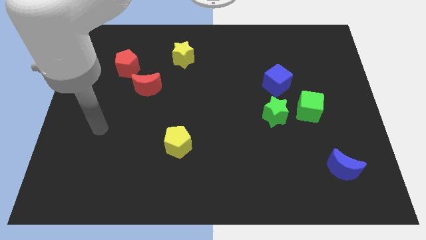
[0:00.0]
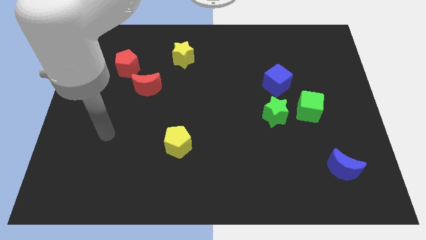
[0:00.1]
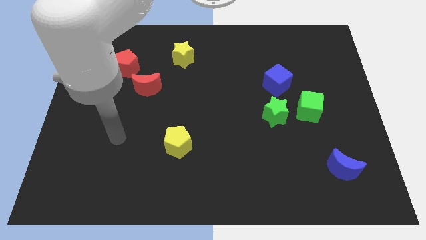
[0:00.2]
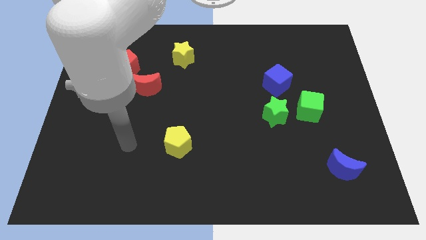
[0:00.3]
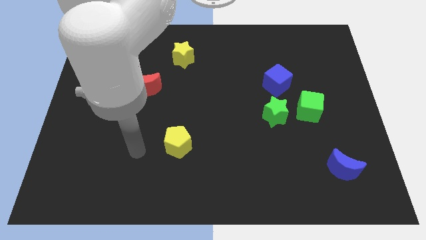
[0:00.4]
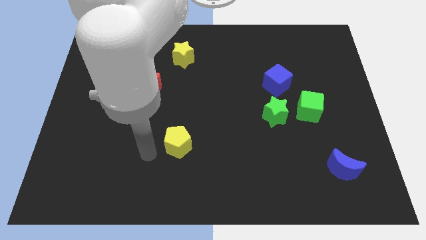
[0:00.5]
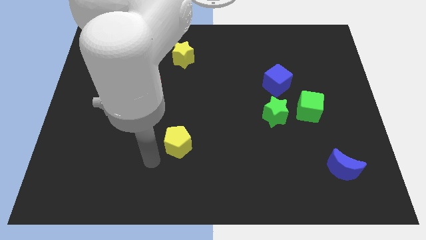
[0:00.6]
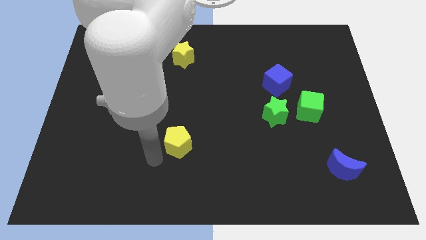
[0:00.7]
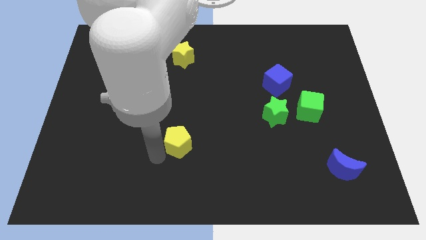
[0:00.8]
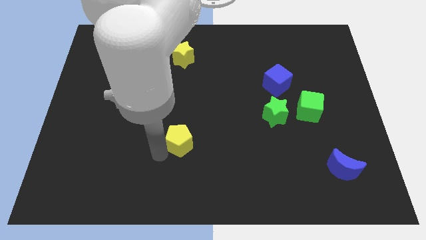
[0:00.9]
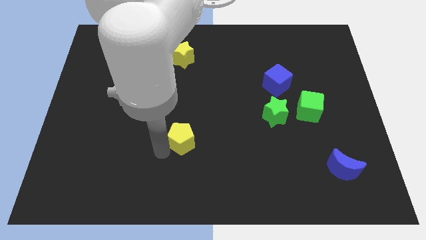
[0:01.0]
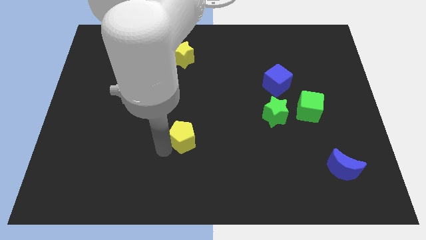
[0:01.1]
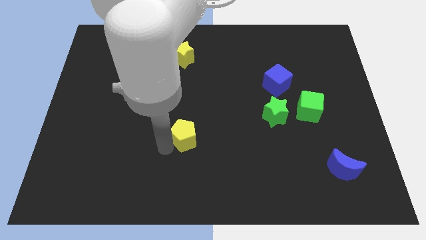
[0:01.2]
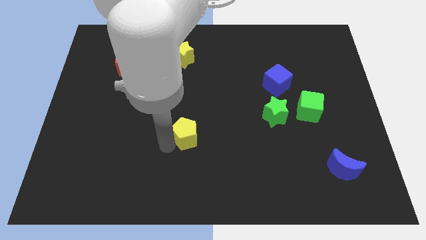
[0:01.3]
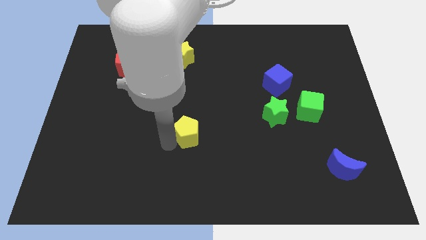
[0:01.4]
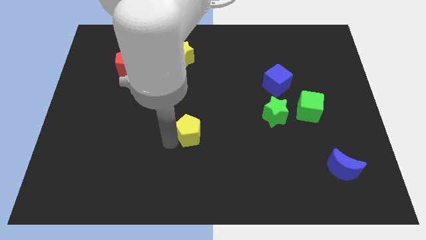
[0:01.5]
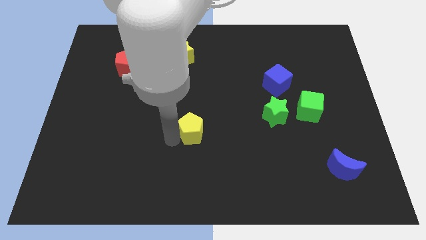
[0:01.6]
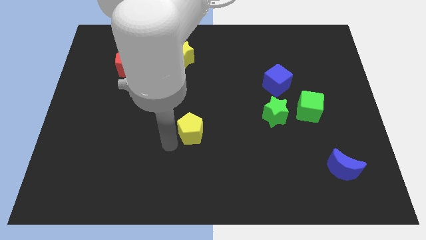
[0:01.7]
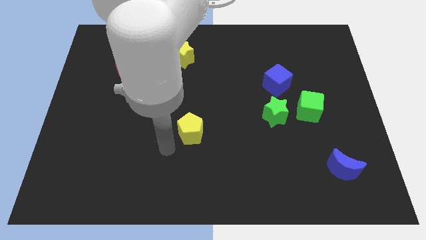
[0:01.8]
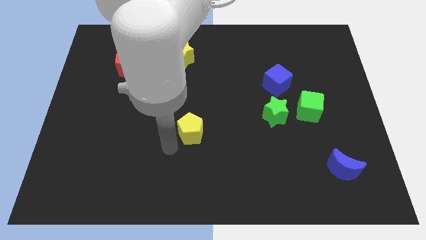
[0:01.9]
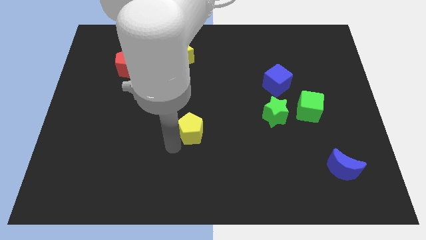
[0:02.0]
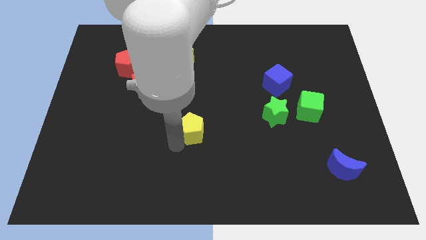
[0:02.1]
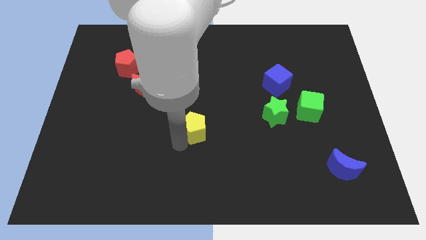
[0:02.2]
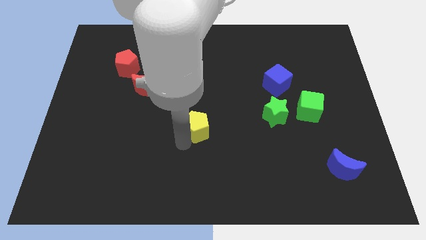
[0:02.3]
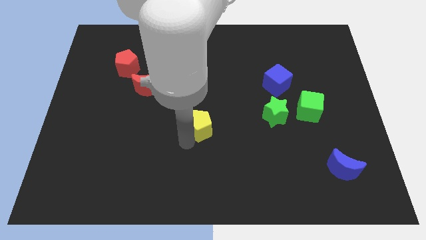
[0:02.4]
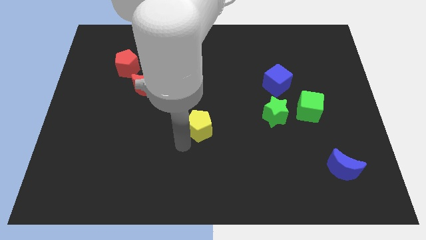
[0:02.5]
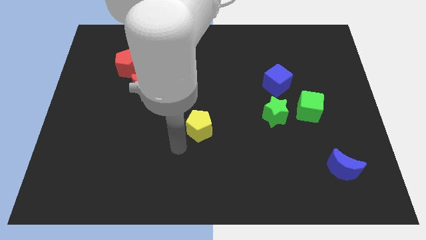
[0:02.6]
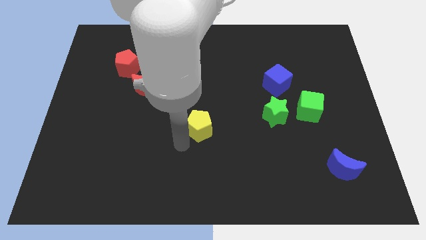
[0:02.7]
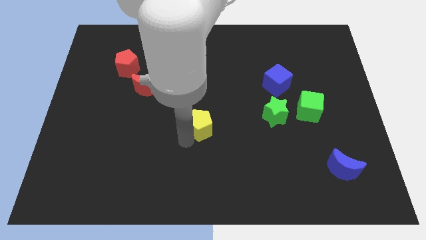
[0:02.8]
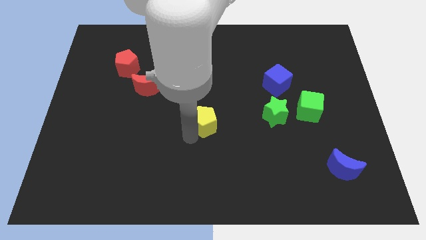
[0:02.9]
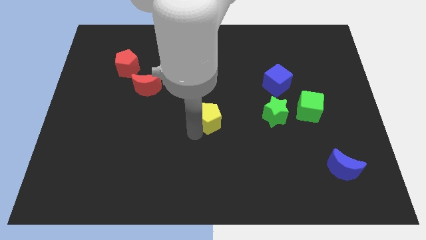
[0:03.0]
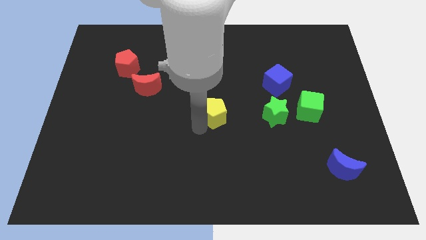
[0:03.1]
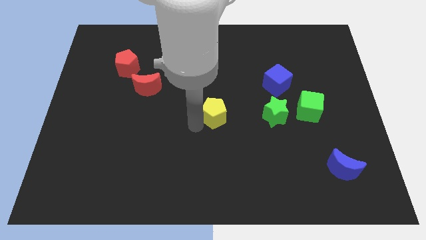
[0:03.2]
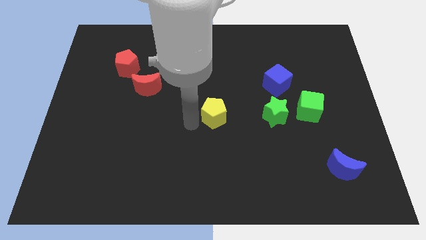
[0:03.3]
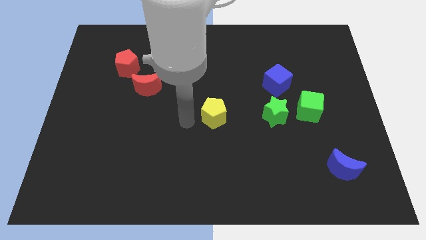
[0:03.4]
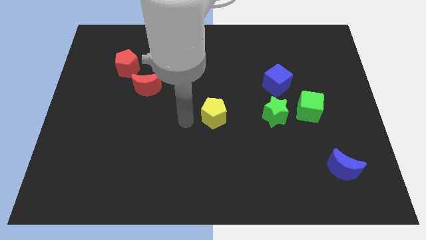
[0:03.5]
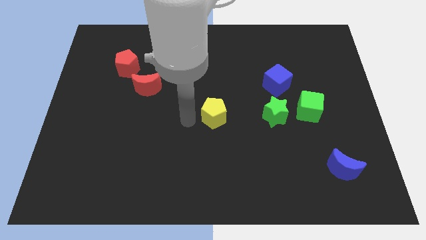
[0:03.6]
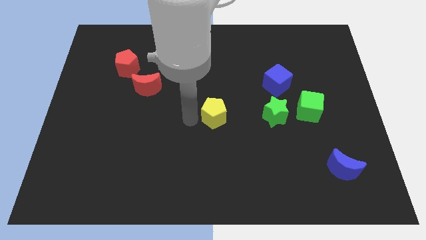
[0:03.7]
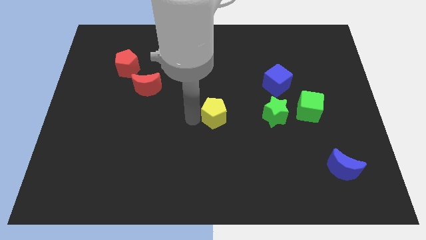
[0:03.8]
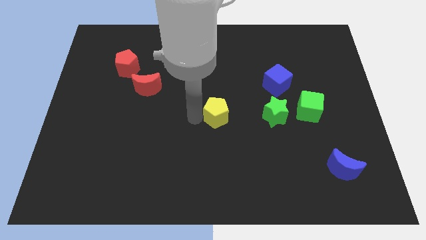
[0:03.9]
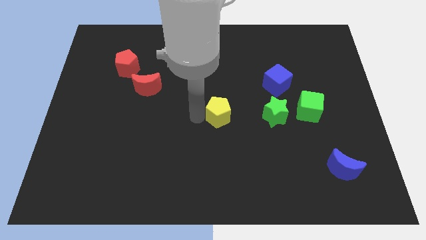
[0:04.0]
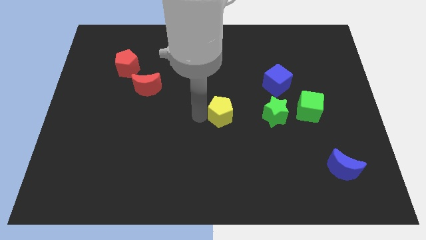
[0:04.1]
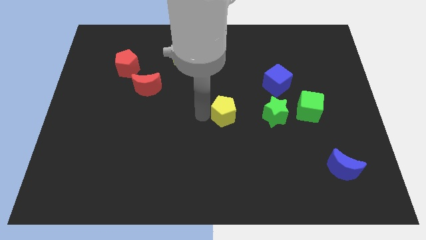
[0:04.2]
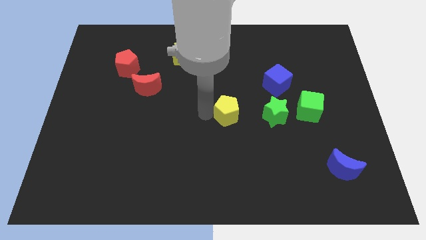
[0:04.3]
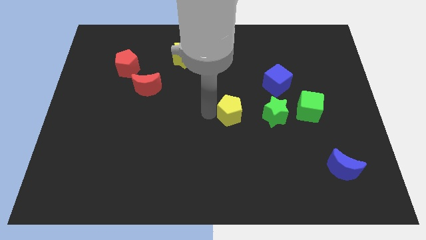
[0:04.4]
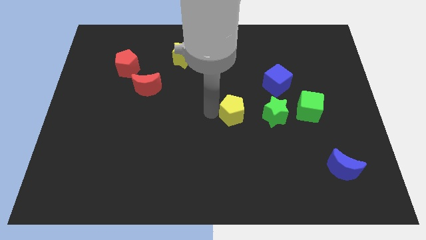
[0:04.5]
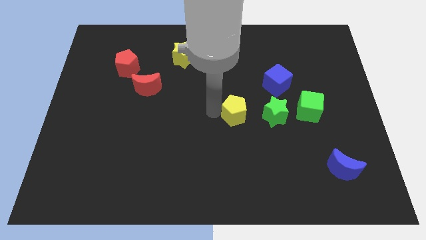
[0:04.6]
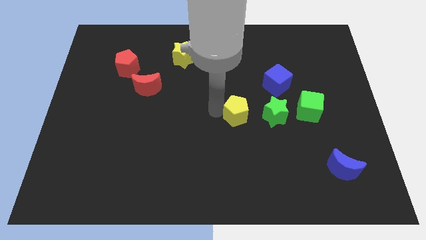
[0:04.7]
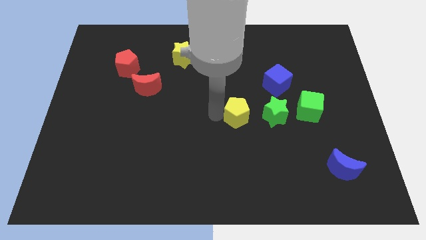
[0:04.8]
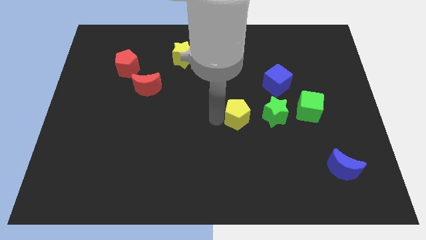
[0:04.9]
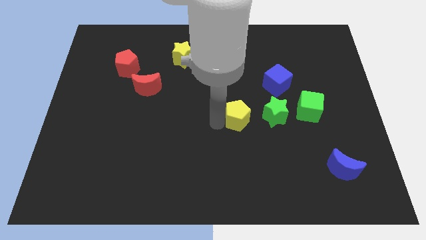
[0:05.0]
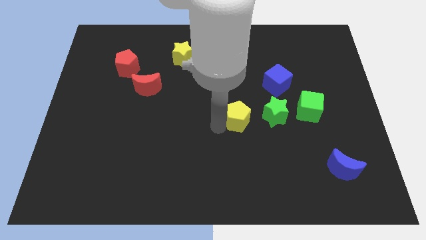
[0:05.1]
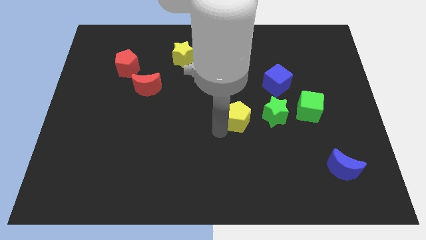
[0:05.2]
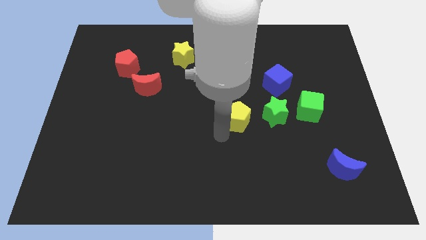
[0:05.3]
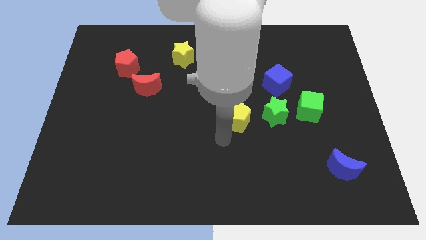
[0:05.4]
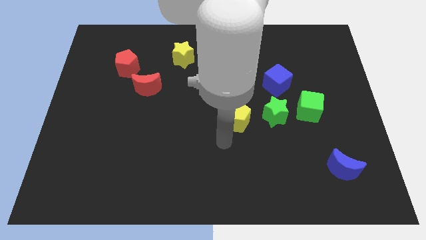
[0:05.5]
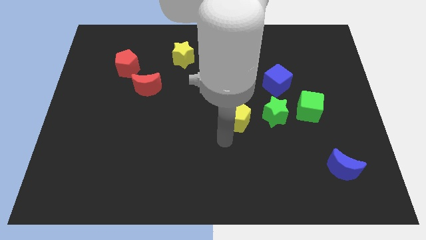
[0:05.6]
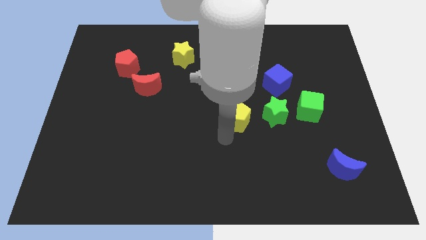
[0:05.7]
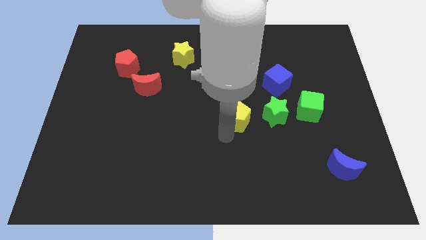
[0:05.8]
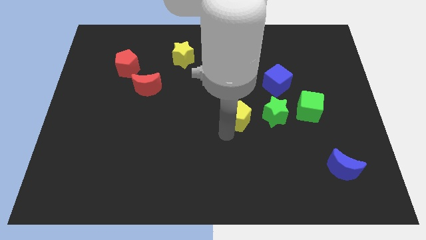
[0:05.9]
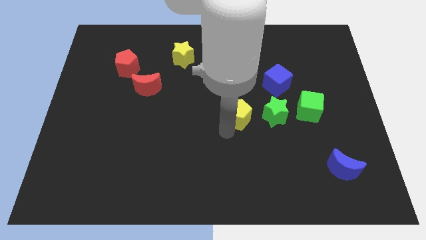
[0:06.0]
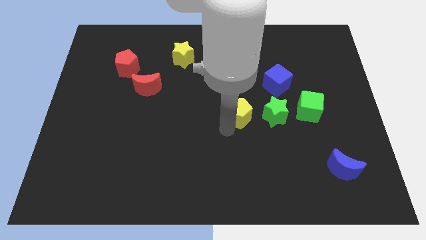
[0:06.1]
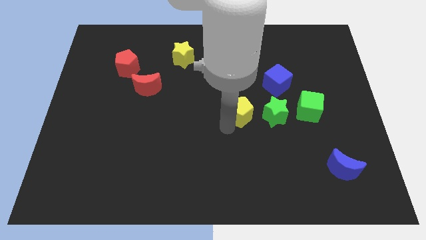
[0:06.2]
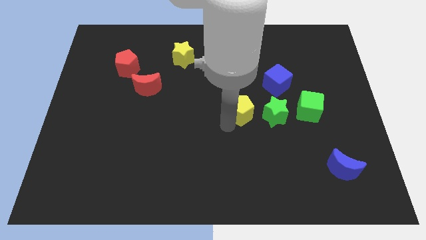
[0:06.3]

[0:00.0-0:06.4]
put the yellow pentagon left of the green cube
